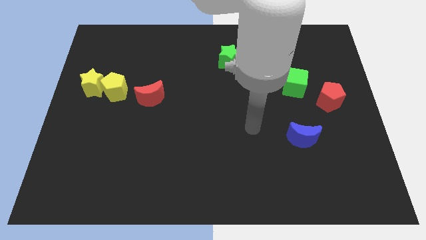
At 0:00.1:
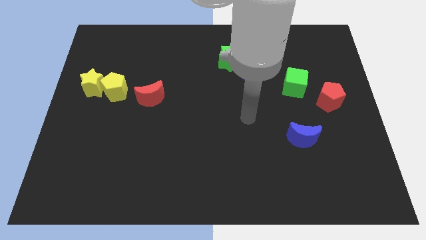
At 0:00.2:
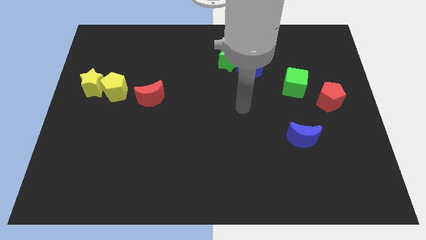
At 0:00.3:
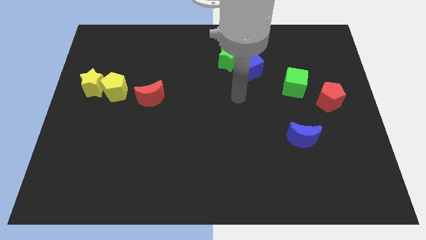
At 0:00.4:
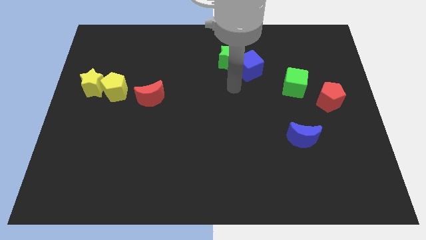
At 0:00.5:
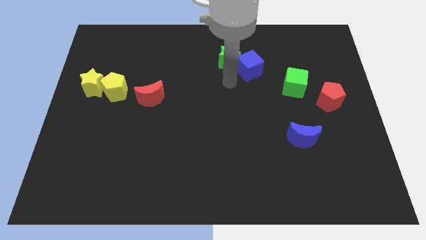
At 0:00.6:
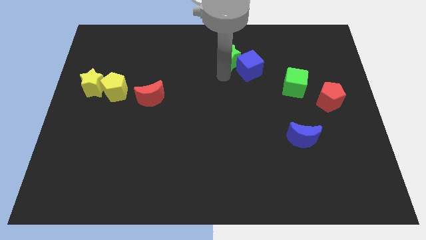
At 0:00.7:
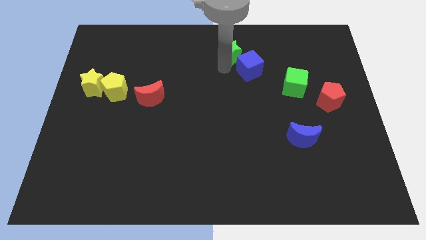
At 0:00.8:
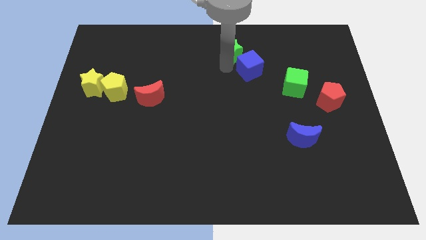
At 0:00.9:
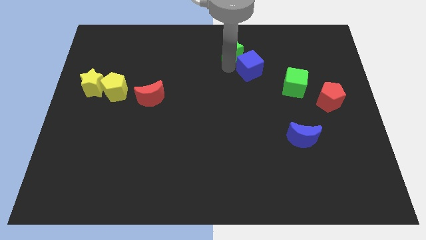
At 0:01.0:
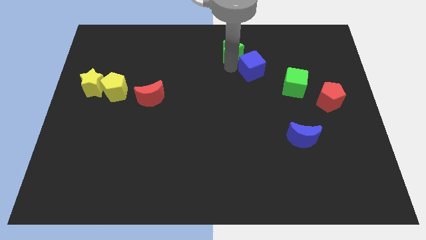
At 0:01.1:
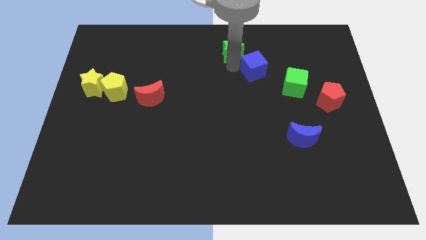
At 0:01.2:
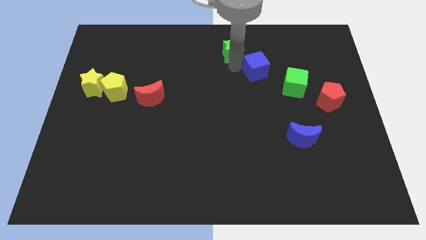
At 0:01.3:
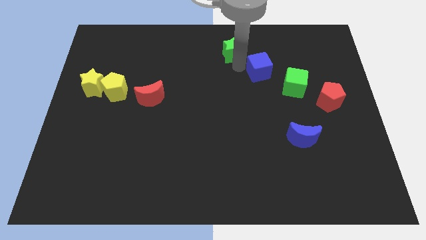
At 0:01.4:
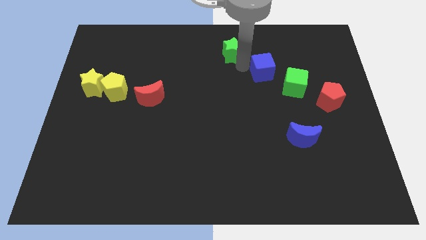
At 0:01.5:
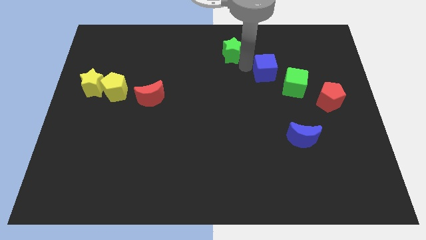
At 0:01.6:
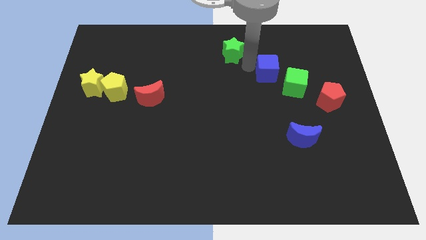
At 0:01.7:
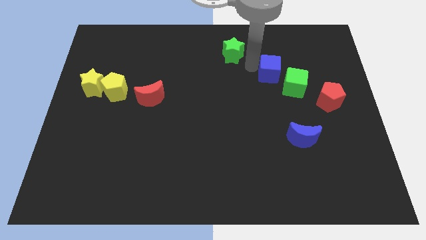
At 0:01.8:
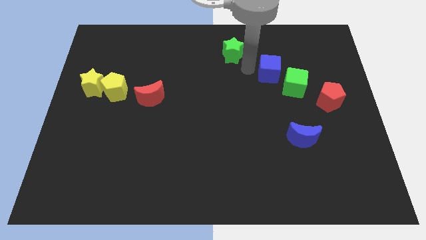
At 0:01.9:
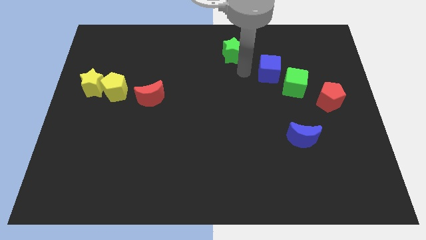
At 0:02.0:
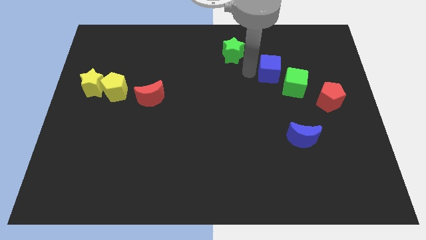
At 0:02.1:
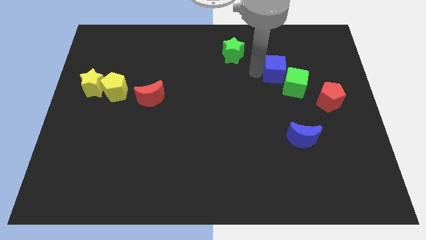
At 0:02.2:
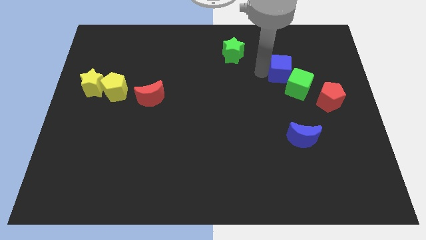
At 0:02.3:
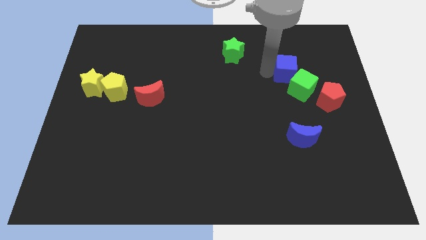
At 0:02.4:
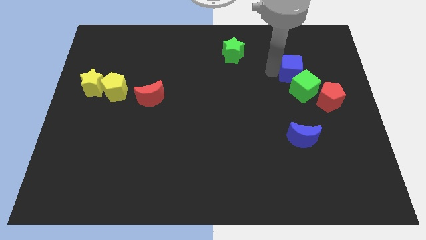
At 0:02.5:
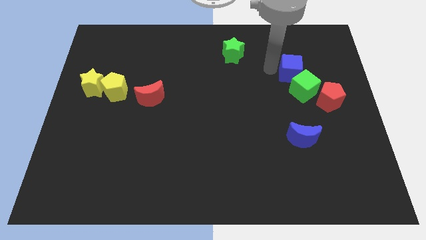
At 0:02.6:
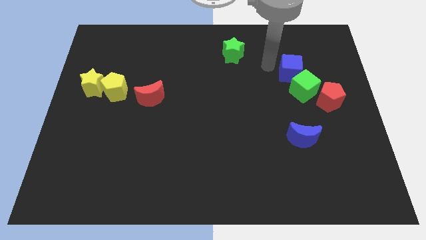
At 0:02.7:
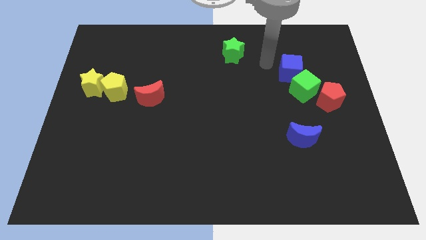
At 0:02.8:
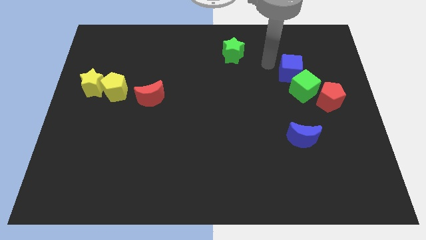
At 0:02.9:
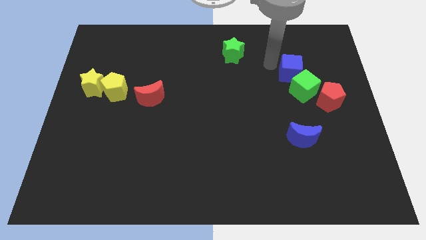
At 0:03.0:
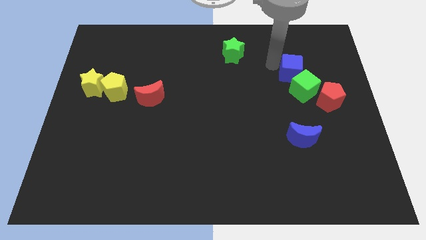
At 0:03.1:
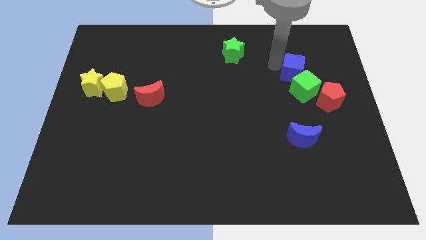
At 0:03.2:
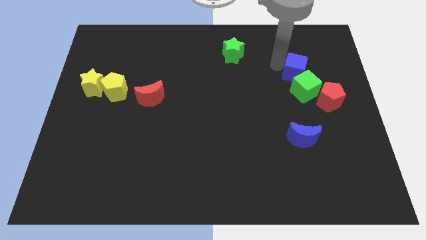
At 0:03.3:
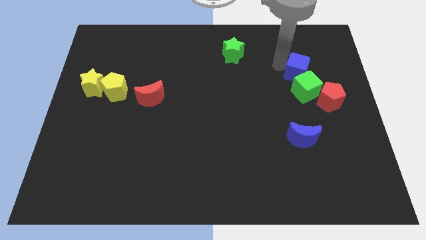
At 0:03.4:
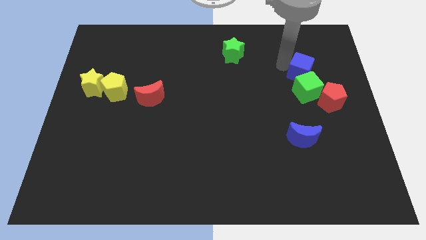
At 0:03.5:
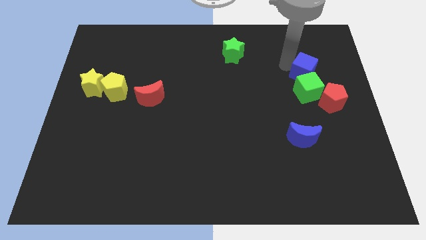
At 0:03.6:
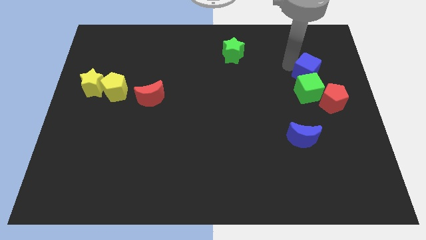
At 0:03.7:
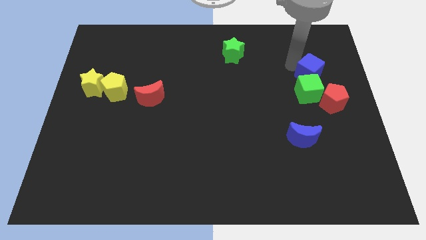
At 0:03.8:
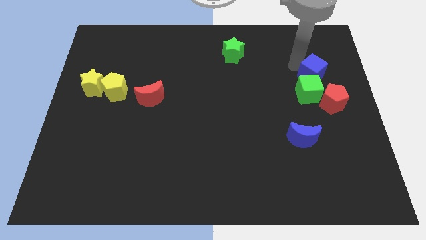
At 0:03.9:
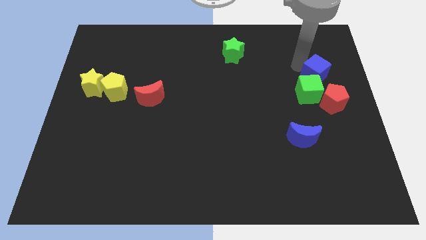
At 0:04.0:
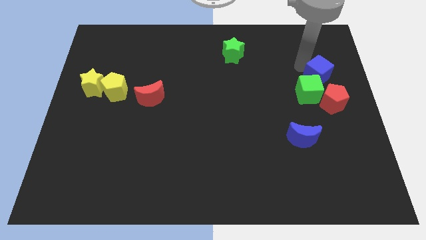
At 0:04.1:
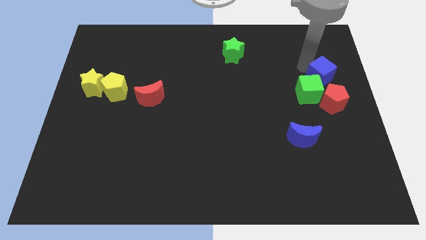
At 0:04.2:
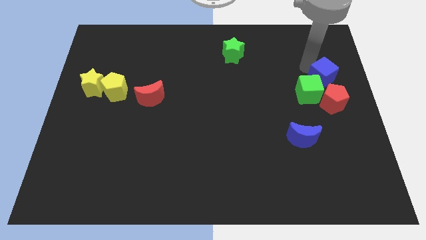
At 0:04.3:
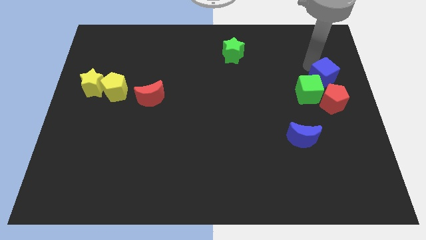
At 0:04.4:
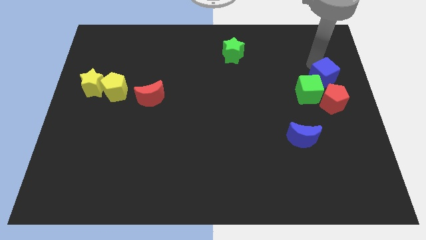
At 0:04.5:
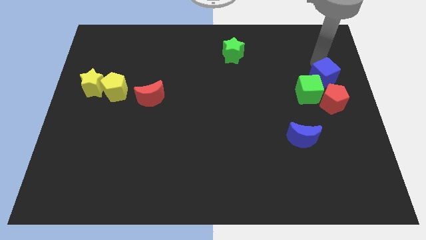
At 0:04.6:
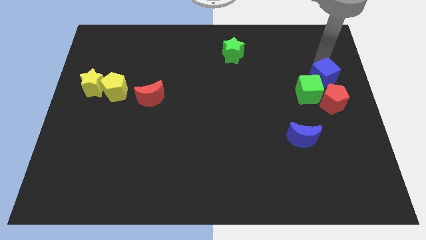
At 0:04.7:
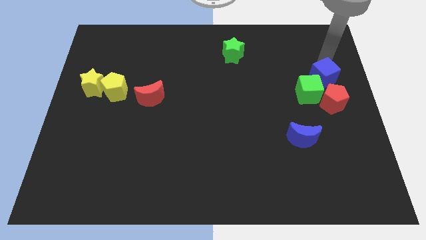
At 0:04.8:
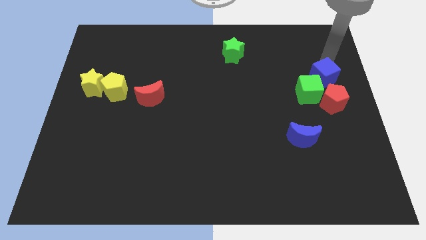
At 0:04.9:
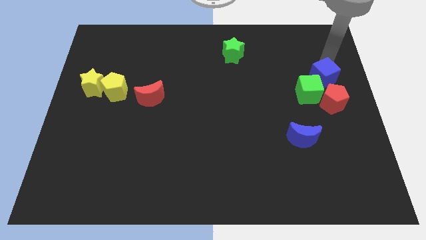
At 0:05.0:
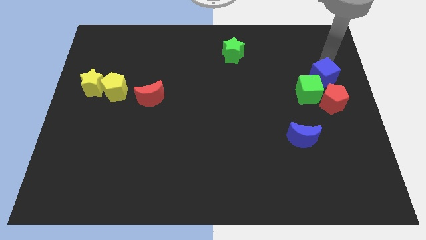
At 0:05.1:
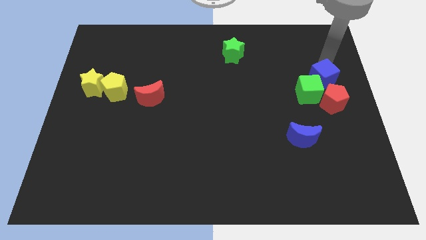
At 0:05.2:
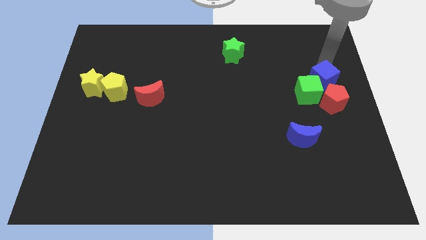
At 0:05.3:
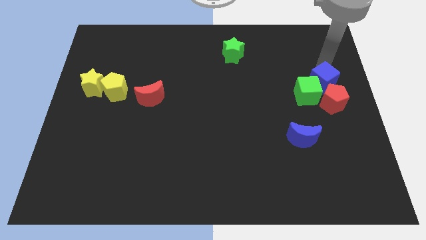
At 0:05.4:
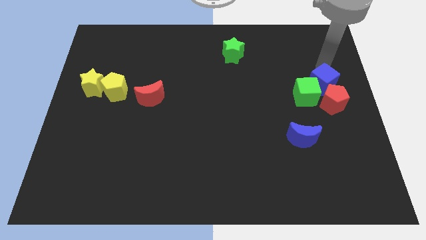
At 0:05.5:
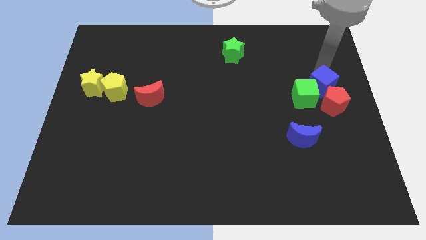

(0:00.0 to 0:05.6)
slide the blue cube next to the red pentagon

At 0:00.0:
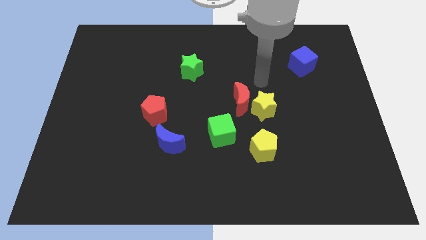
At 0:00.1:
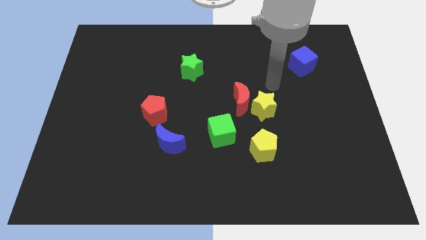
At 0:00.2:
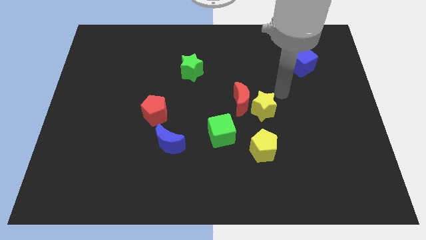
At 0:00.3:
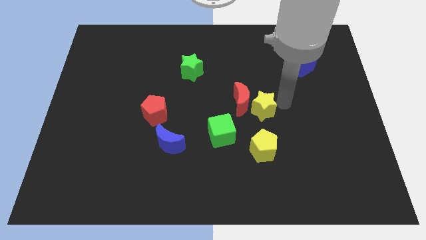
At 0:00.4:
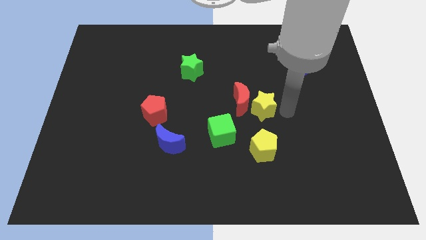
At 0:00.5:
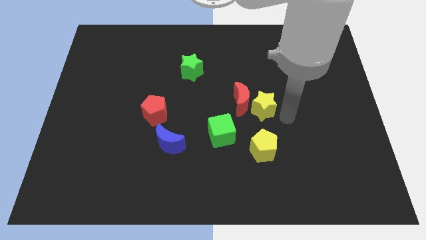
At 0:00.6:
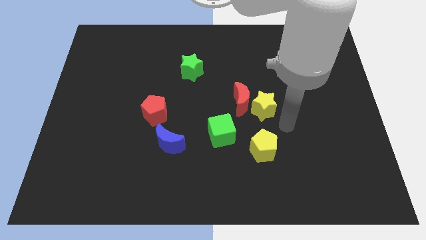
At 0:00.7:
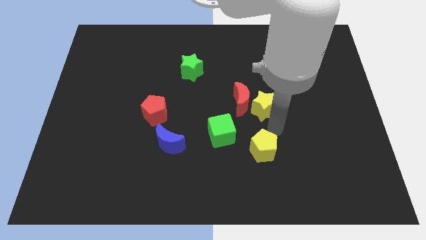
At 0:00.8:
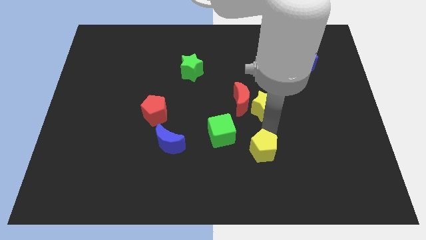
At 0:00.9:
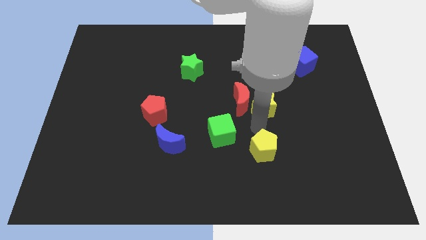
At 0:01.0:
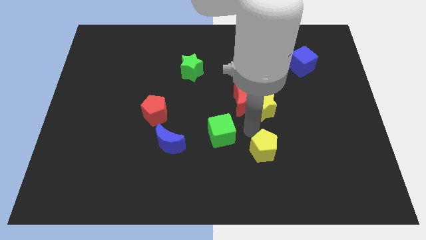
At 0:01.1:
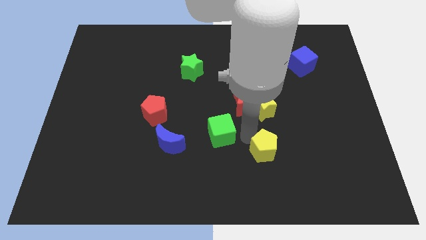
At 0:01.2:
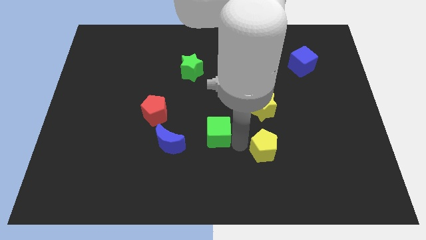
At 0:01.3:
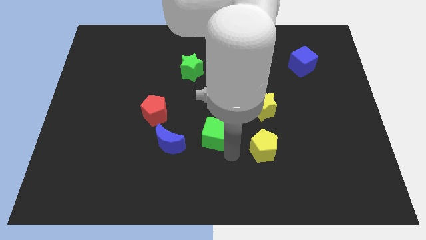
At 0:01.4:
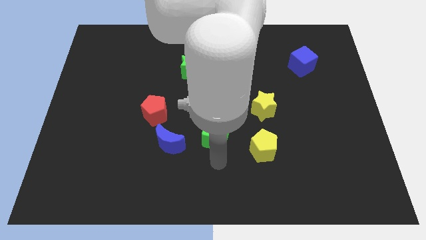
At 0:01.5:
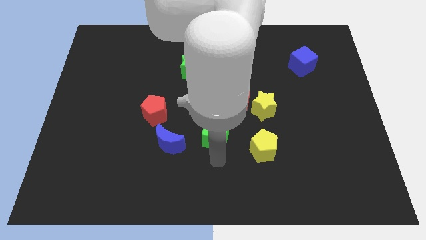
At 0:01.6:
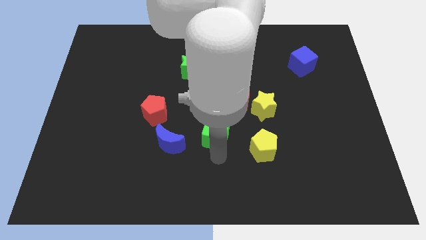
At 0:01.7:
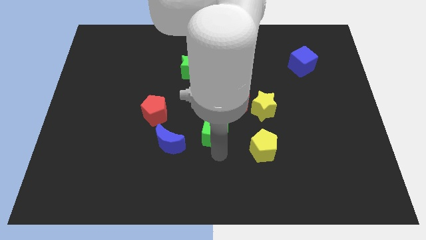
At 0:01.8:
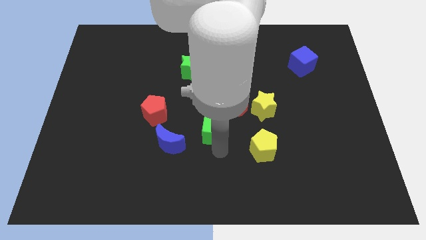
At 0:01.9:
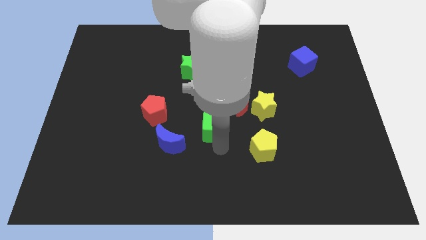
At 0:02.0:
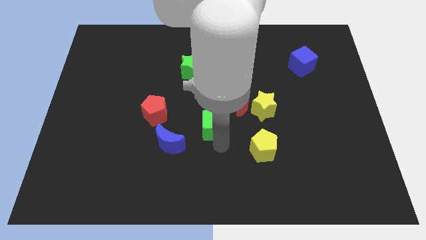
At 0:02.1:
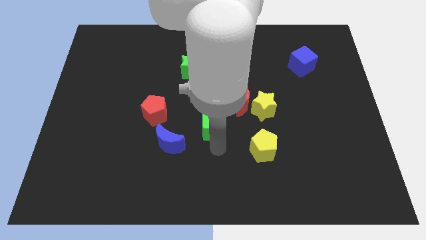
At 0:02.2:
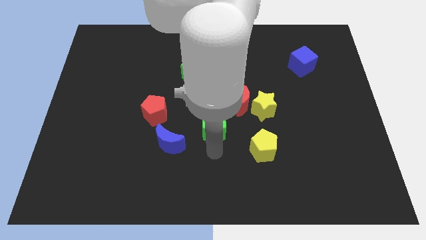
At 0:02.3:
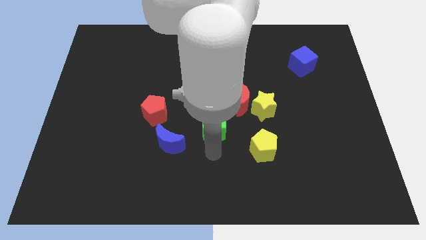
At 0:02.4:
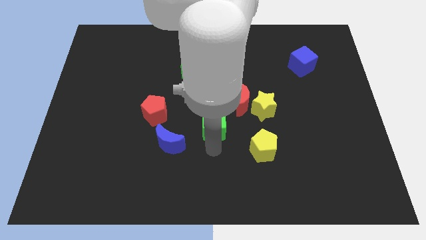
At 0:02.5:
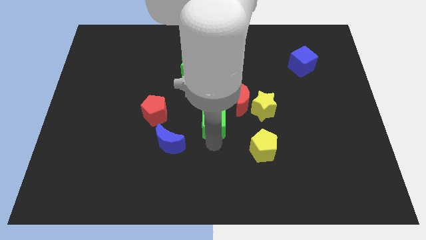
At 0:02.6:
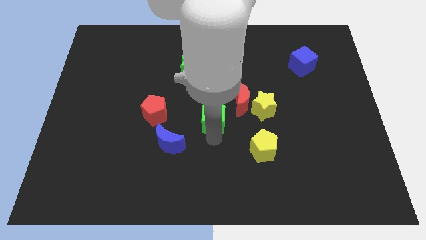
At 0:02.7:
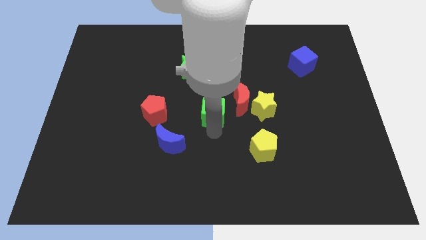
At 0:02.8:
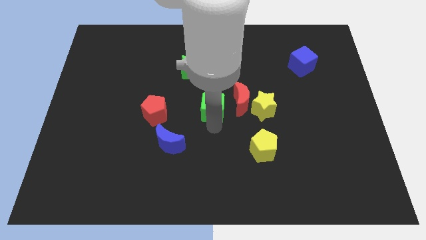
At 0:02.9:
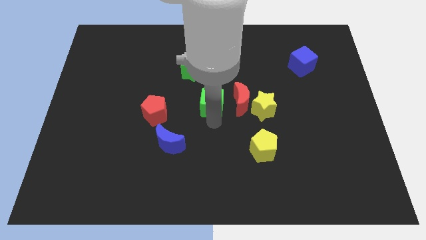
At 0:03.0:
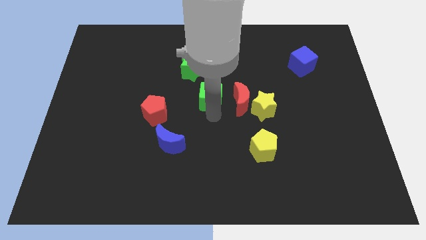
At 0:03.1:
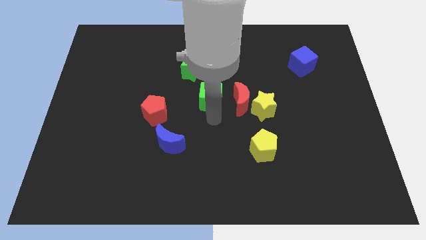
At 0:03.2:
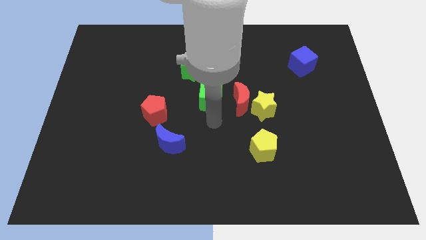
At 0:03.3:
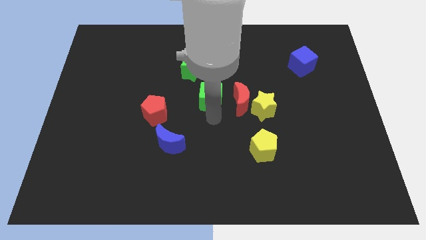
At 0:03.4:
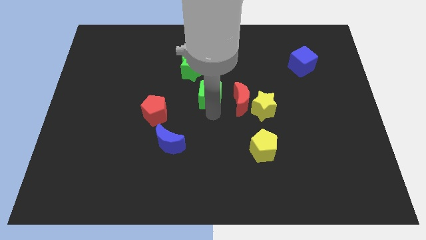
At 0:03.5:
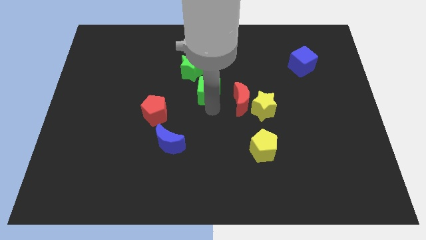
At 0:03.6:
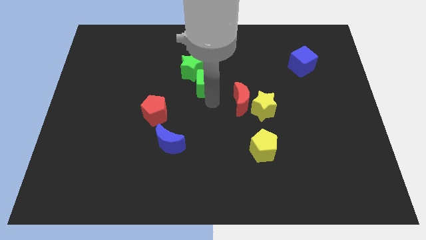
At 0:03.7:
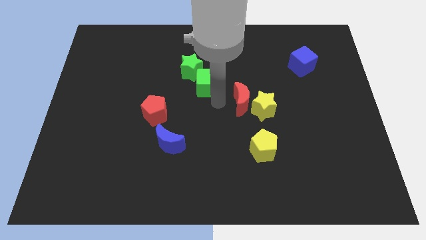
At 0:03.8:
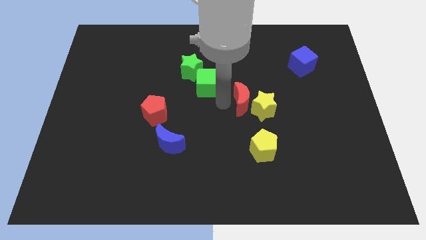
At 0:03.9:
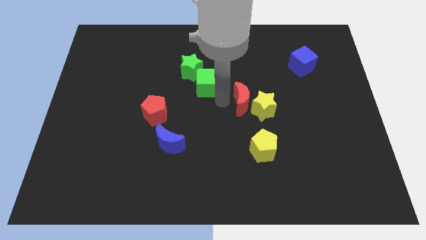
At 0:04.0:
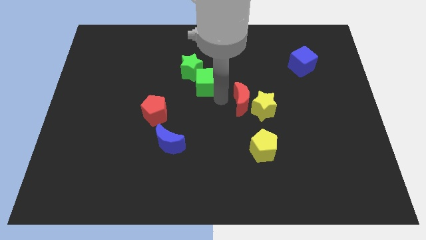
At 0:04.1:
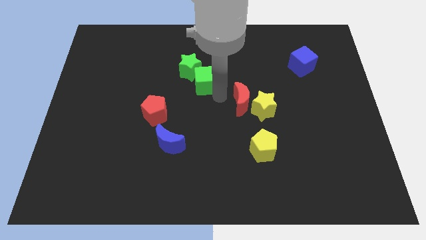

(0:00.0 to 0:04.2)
put the green cube close to the green star
